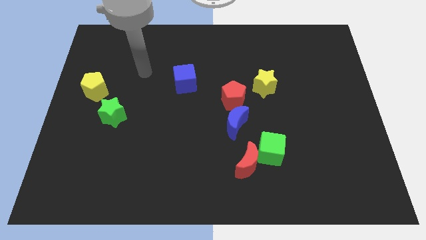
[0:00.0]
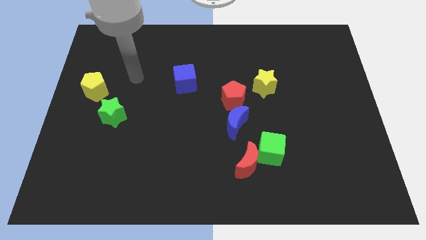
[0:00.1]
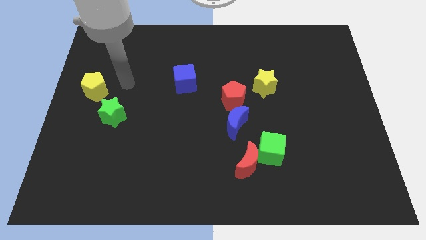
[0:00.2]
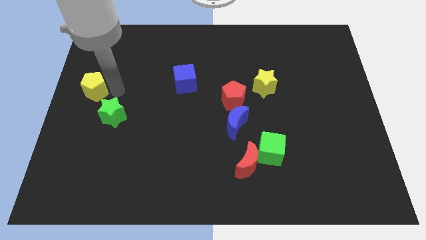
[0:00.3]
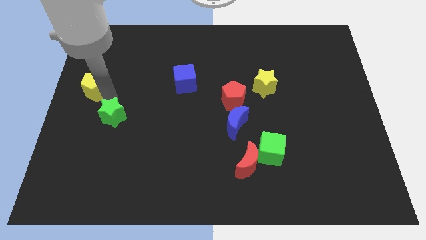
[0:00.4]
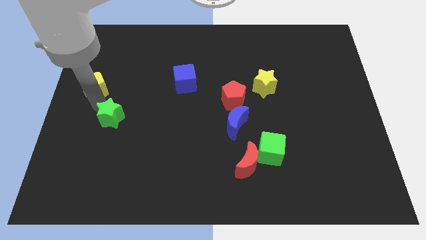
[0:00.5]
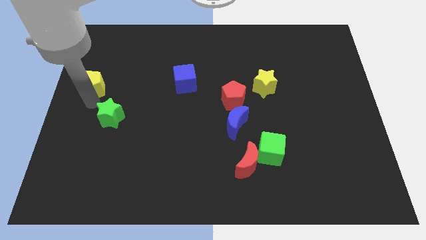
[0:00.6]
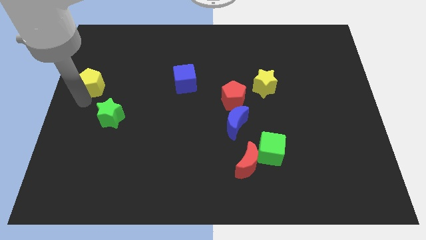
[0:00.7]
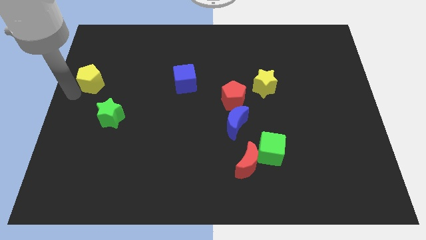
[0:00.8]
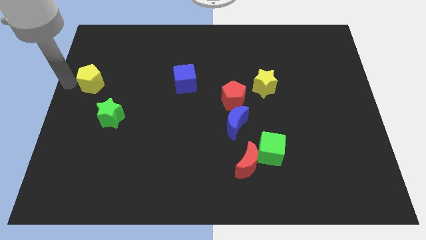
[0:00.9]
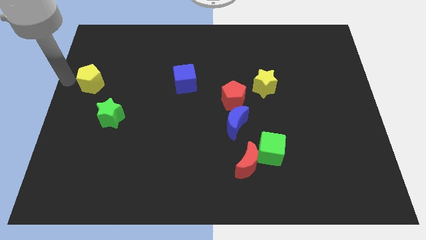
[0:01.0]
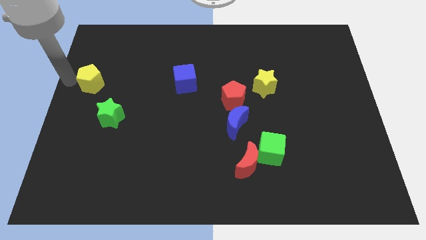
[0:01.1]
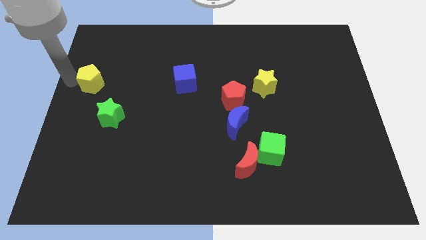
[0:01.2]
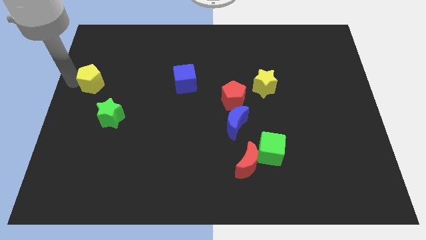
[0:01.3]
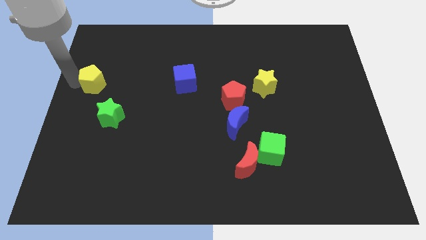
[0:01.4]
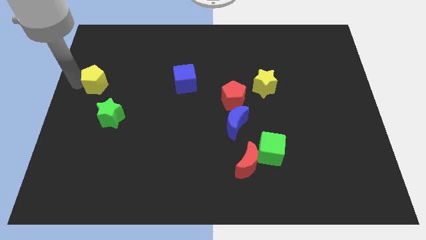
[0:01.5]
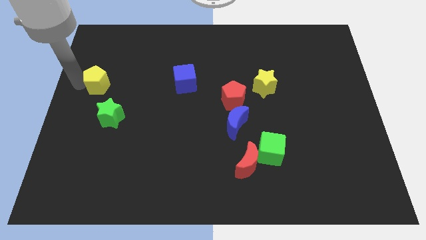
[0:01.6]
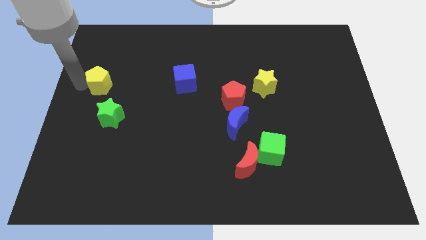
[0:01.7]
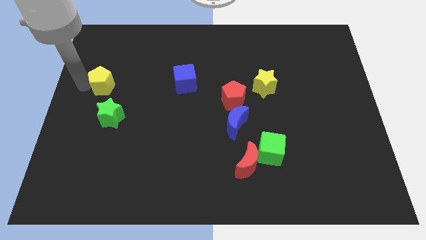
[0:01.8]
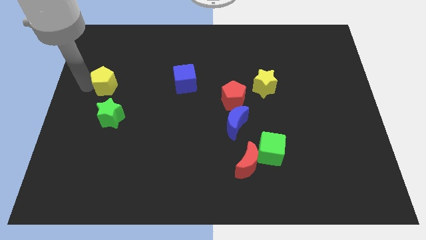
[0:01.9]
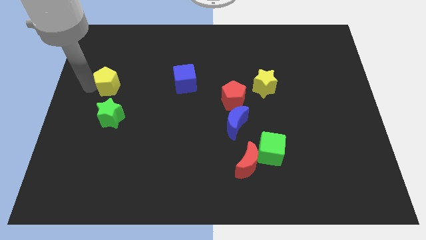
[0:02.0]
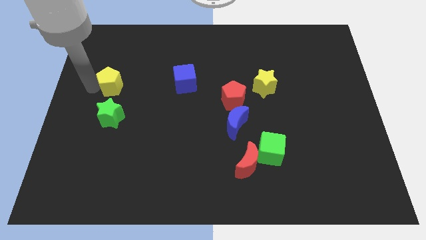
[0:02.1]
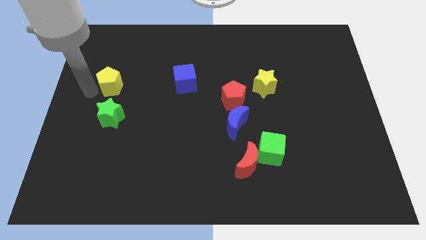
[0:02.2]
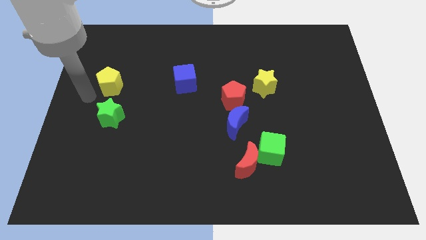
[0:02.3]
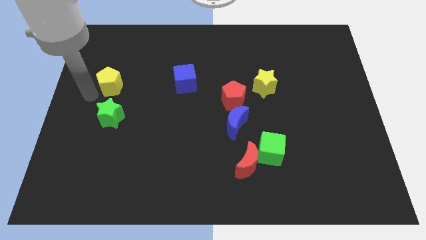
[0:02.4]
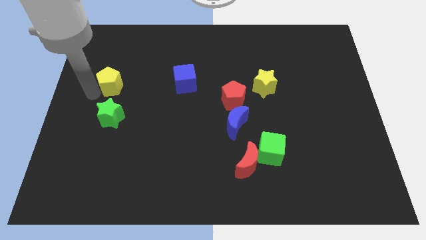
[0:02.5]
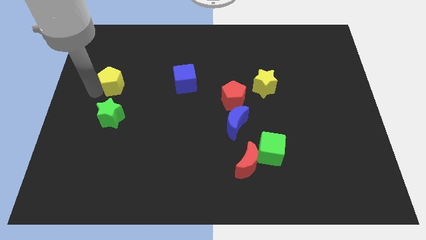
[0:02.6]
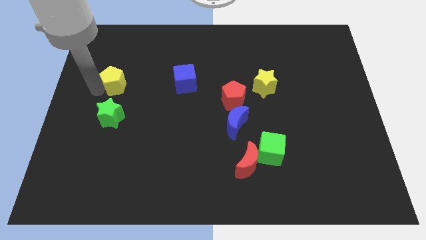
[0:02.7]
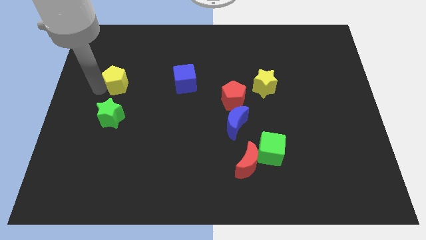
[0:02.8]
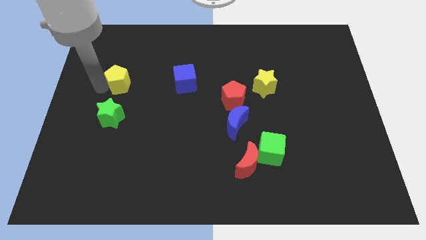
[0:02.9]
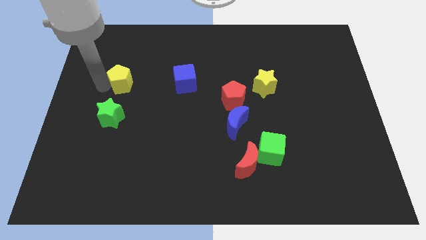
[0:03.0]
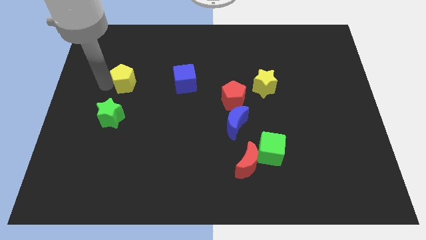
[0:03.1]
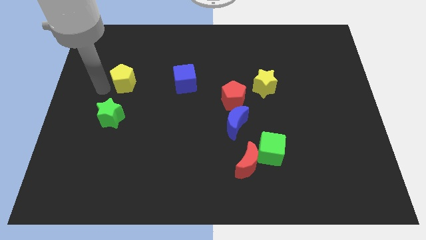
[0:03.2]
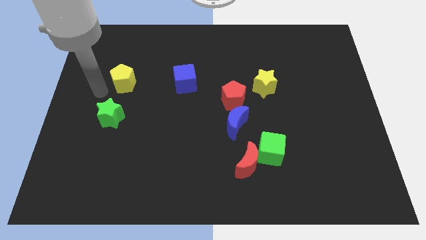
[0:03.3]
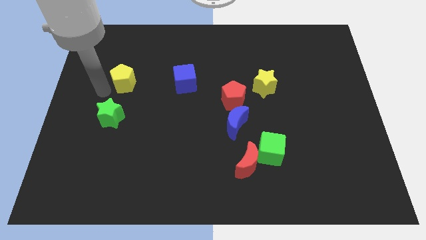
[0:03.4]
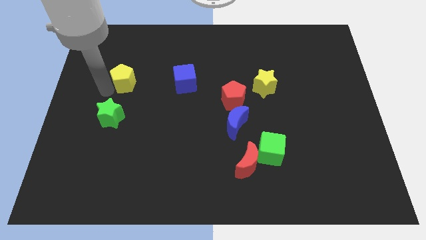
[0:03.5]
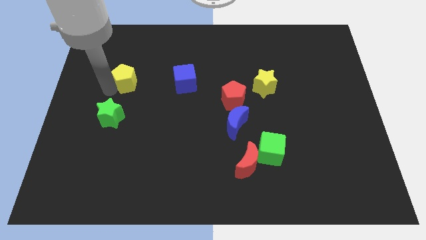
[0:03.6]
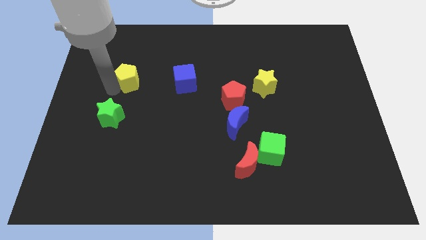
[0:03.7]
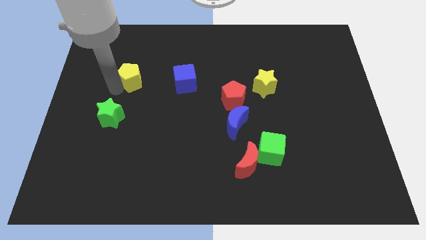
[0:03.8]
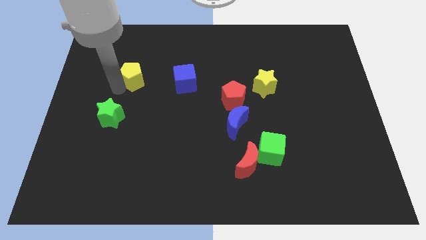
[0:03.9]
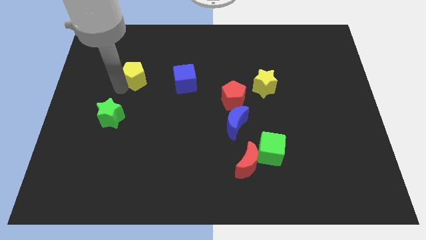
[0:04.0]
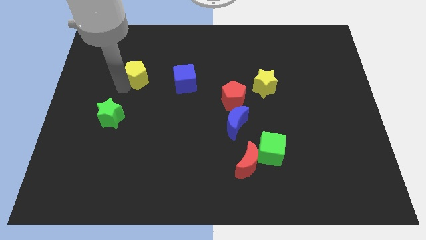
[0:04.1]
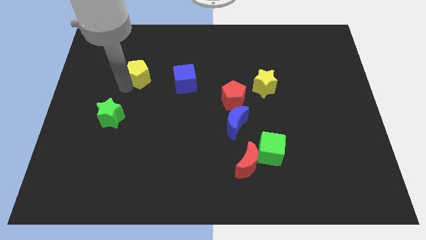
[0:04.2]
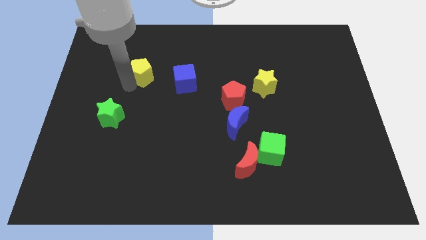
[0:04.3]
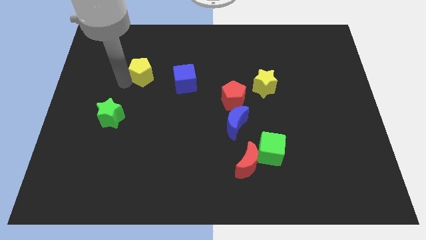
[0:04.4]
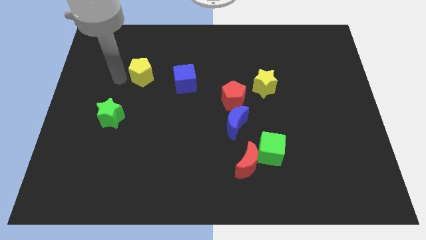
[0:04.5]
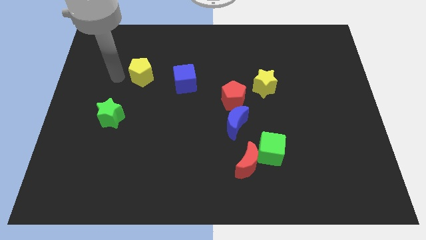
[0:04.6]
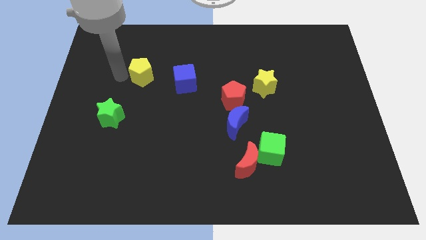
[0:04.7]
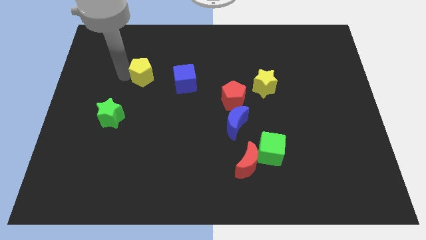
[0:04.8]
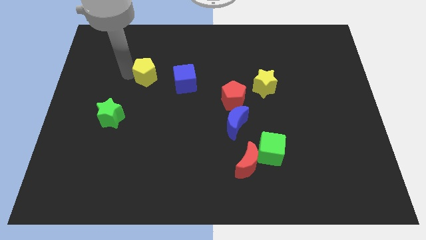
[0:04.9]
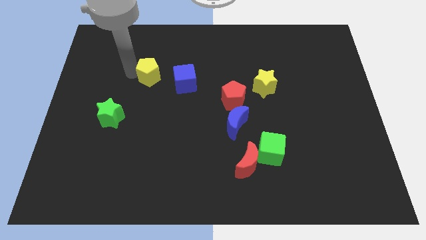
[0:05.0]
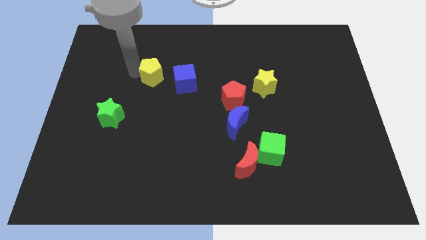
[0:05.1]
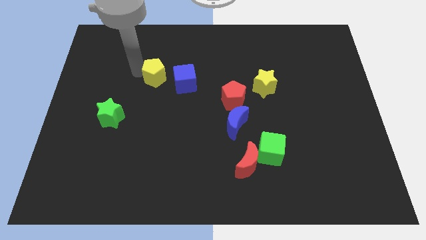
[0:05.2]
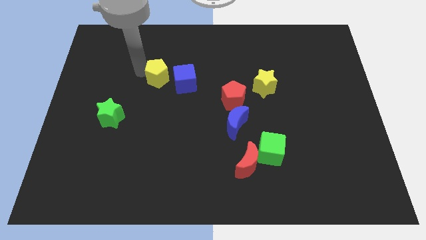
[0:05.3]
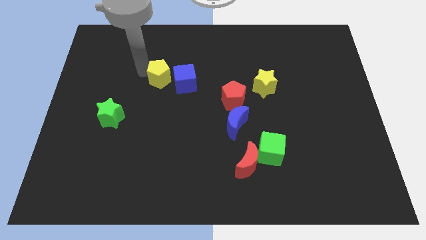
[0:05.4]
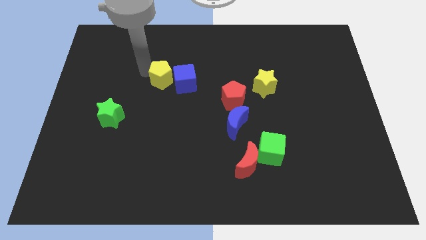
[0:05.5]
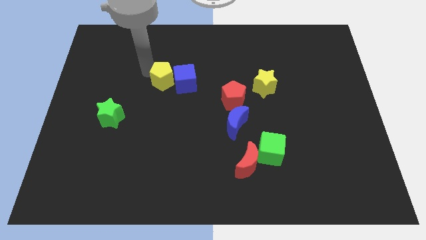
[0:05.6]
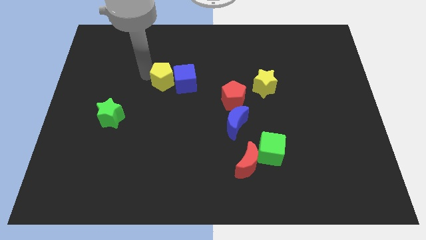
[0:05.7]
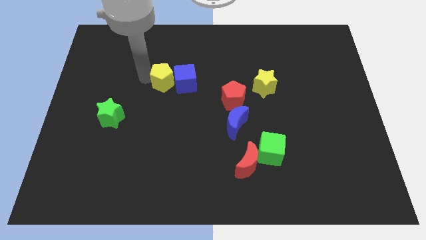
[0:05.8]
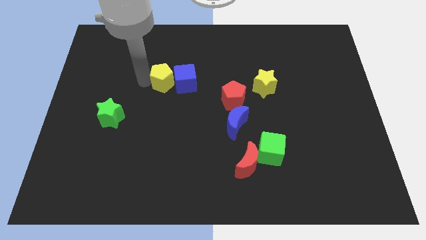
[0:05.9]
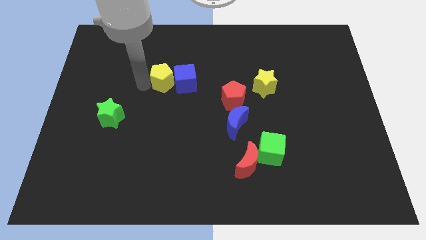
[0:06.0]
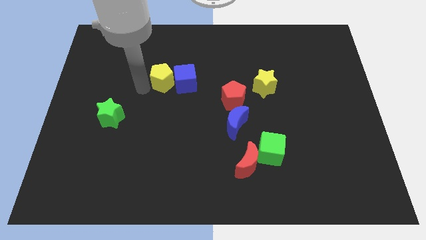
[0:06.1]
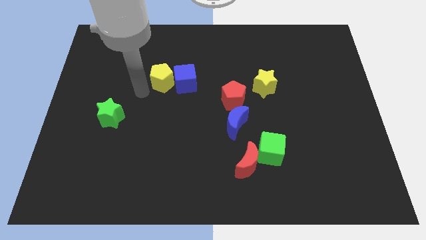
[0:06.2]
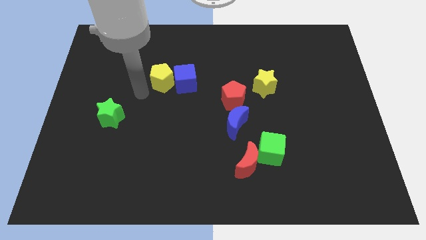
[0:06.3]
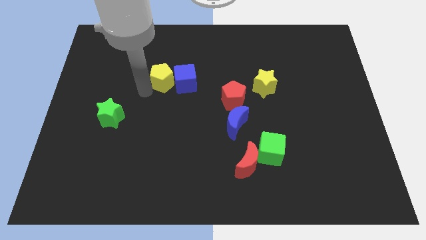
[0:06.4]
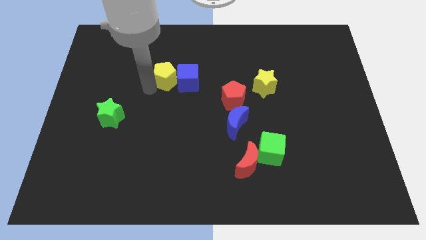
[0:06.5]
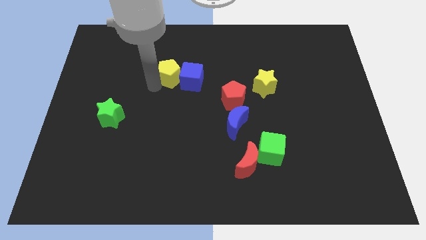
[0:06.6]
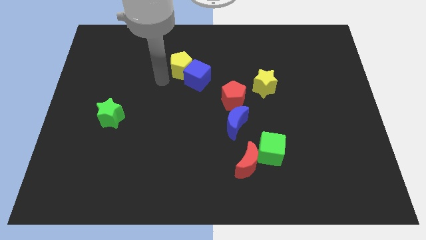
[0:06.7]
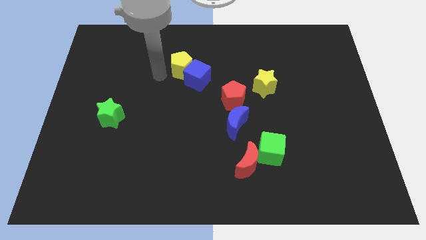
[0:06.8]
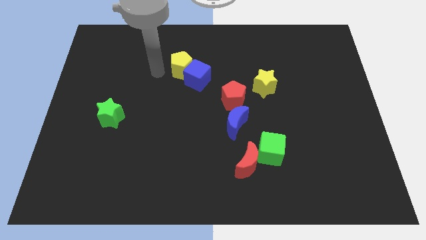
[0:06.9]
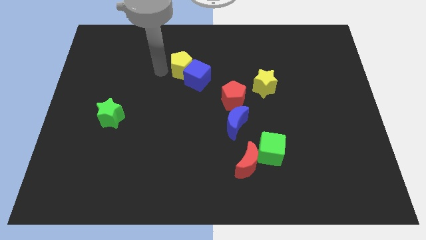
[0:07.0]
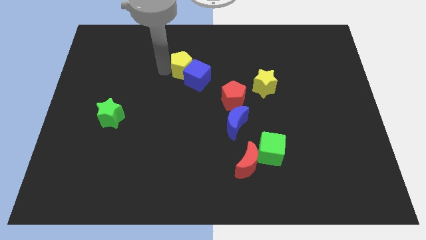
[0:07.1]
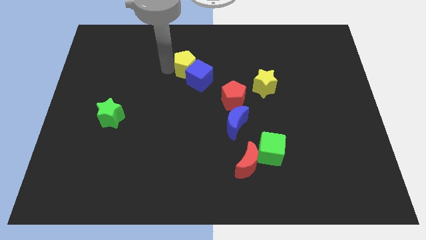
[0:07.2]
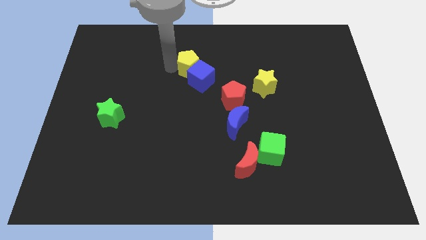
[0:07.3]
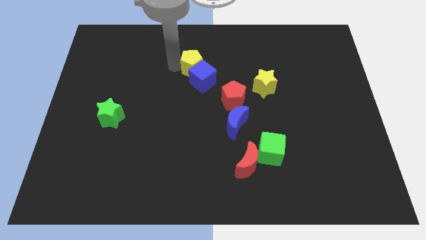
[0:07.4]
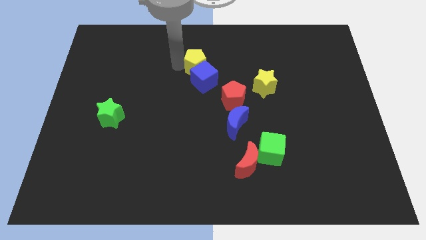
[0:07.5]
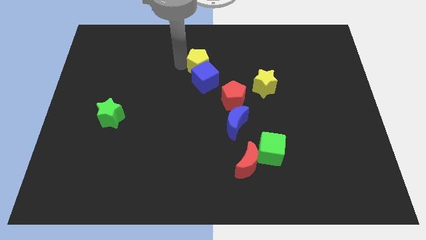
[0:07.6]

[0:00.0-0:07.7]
push the yellow pentagon to the top right side of the blue cube
